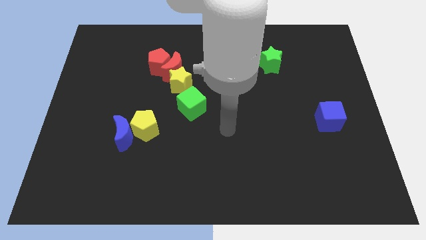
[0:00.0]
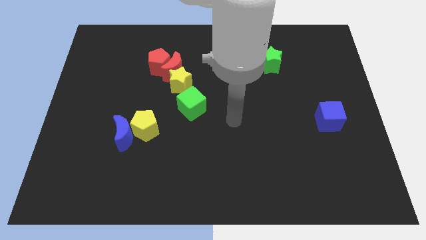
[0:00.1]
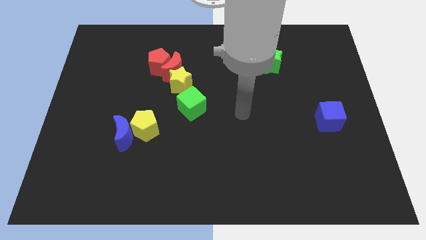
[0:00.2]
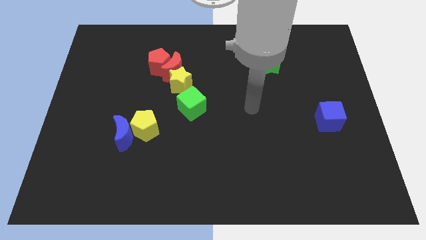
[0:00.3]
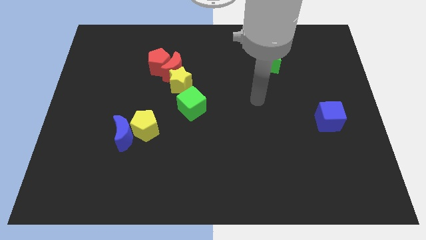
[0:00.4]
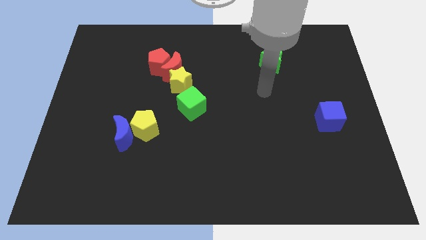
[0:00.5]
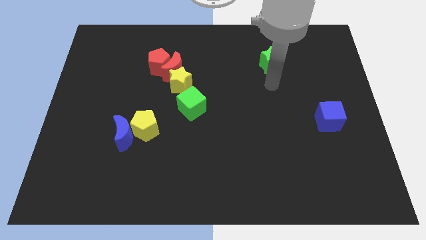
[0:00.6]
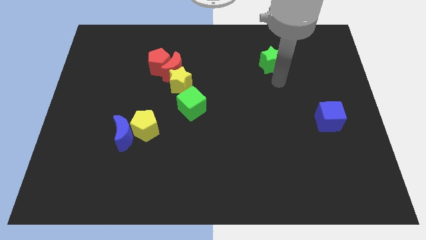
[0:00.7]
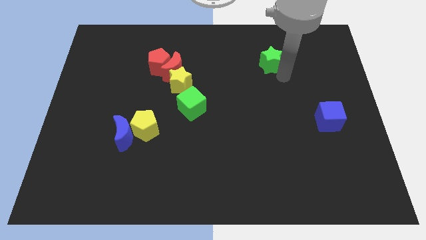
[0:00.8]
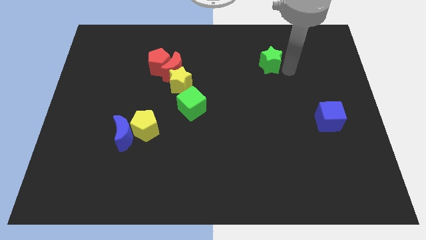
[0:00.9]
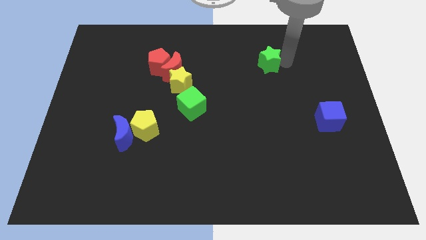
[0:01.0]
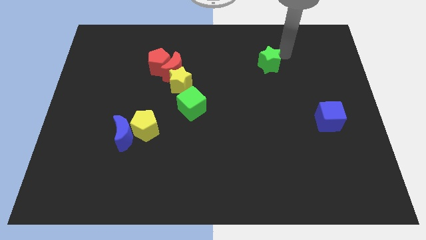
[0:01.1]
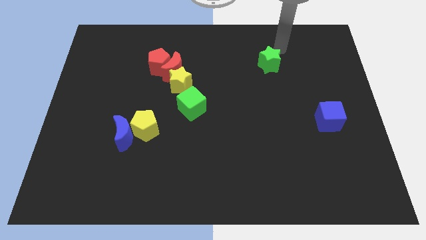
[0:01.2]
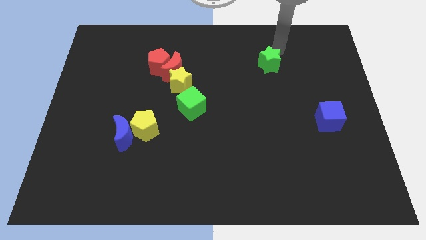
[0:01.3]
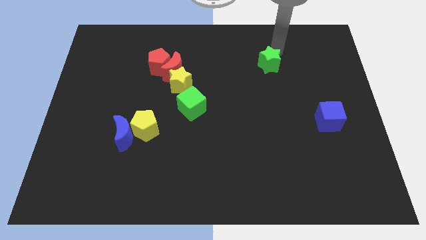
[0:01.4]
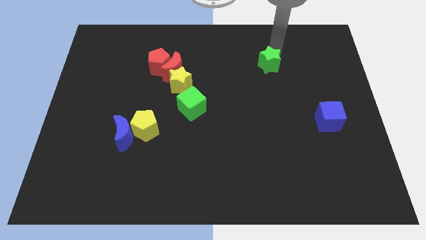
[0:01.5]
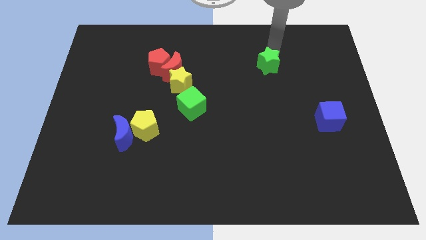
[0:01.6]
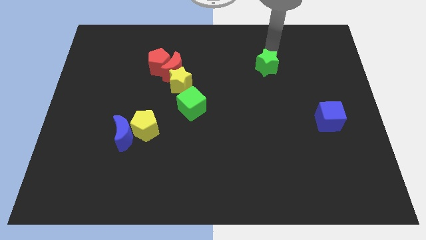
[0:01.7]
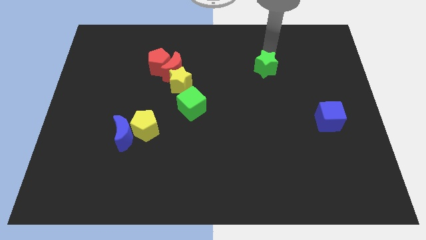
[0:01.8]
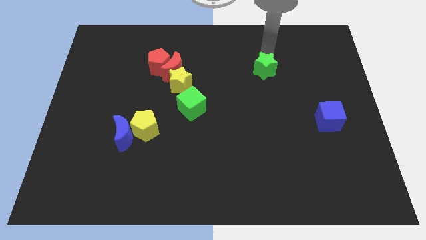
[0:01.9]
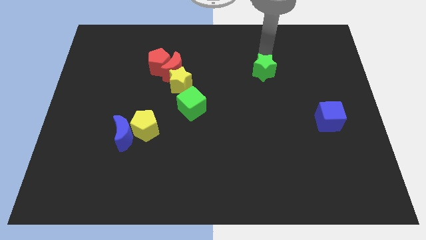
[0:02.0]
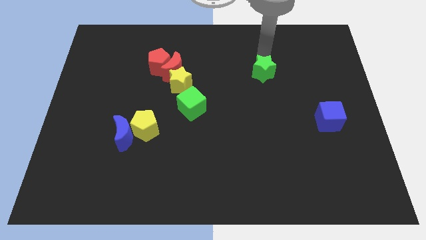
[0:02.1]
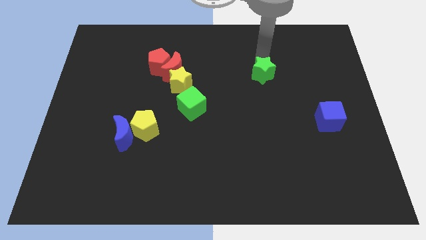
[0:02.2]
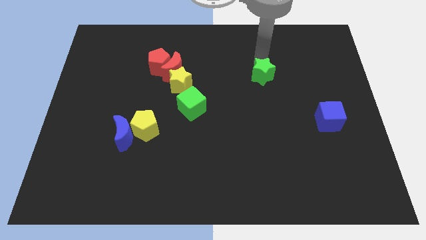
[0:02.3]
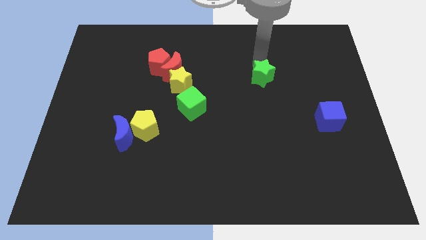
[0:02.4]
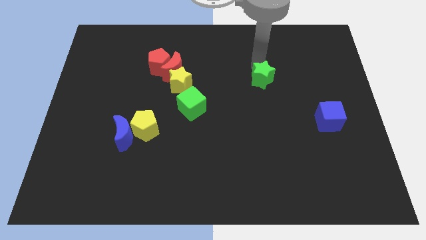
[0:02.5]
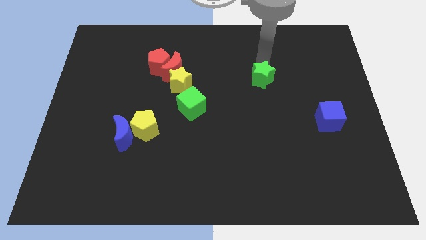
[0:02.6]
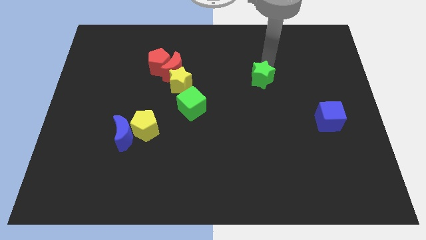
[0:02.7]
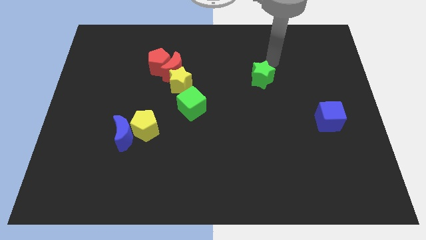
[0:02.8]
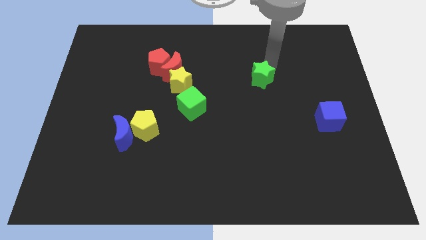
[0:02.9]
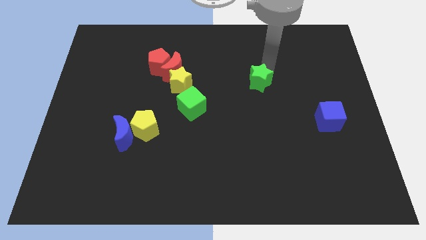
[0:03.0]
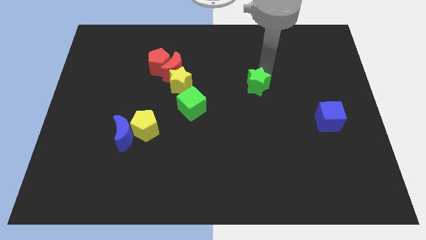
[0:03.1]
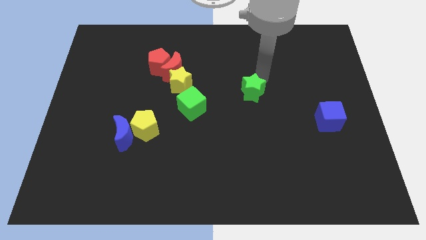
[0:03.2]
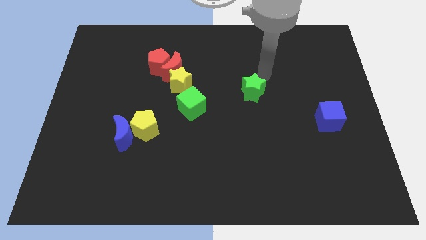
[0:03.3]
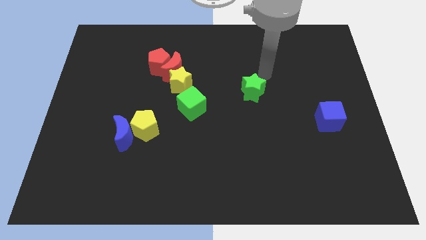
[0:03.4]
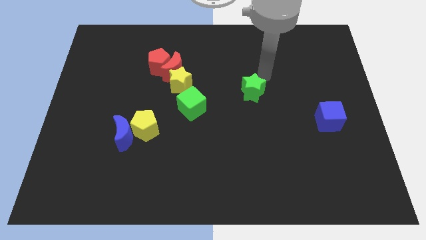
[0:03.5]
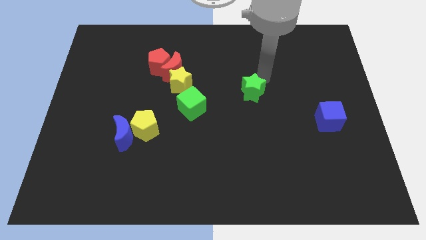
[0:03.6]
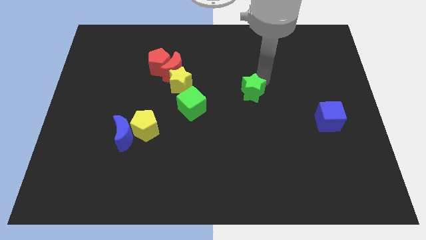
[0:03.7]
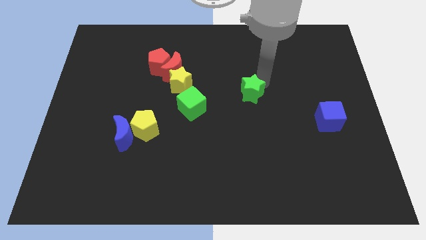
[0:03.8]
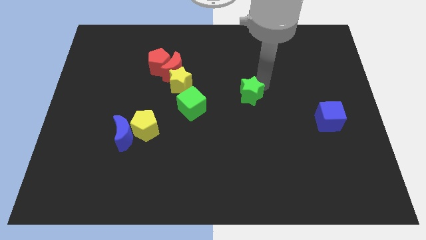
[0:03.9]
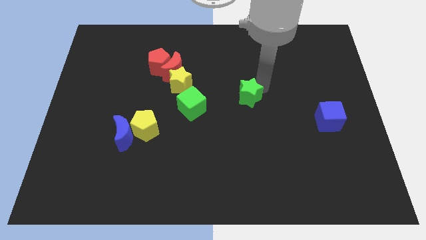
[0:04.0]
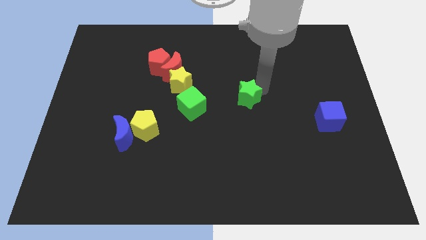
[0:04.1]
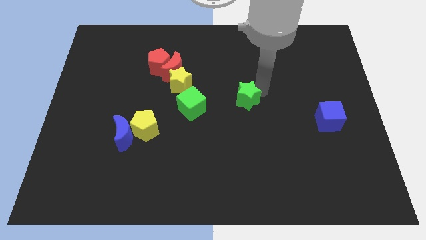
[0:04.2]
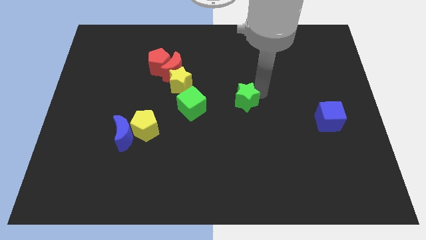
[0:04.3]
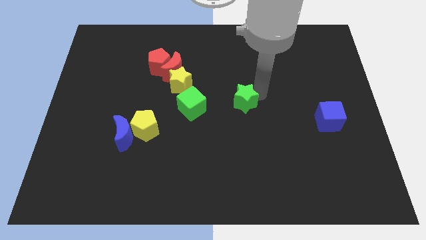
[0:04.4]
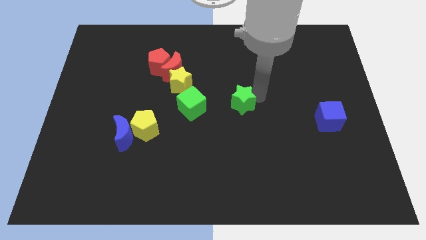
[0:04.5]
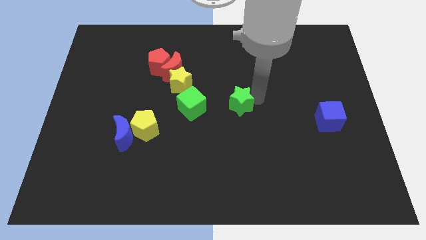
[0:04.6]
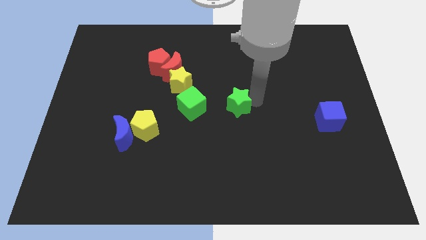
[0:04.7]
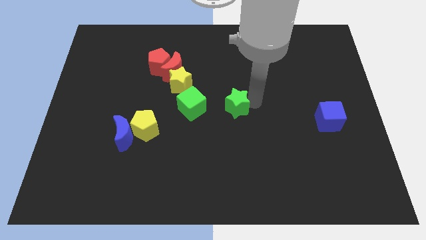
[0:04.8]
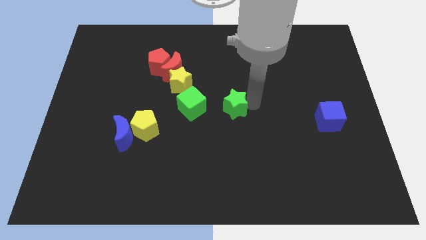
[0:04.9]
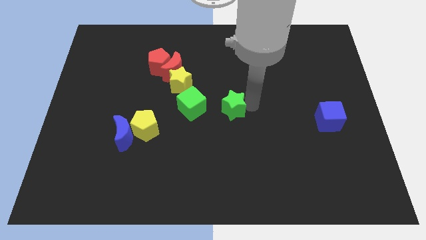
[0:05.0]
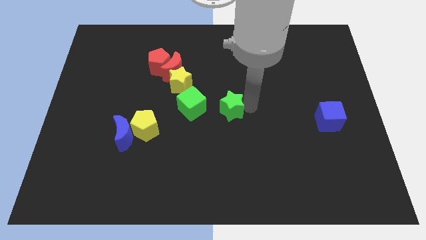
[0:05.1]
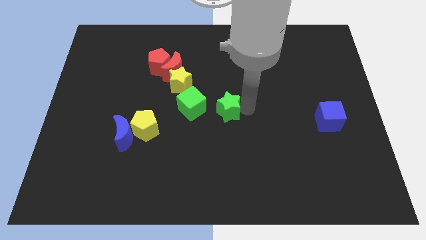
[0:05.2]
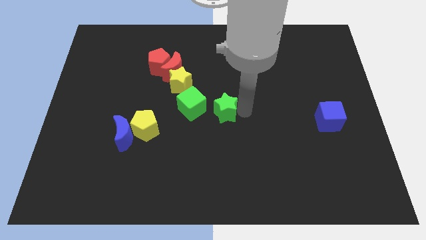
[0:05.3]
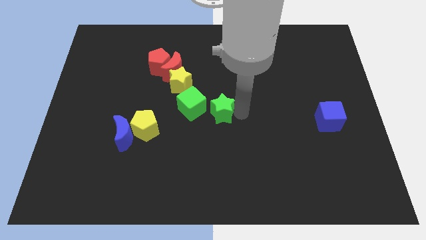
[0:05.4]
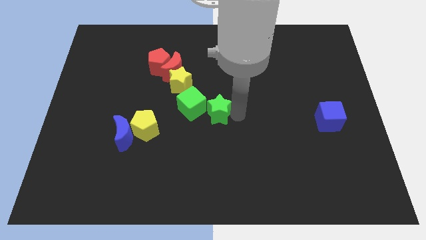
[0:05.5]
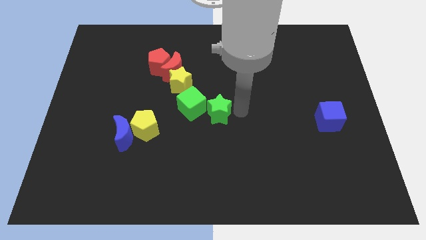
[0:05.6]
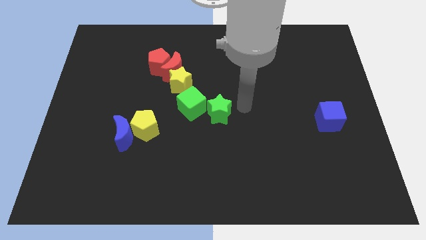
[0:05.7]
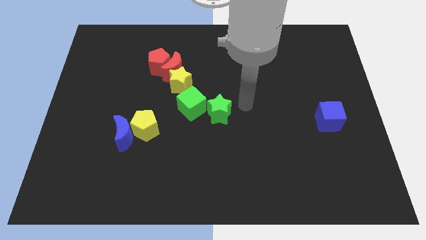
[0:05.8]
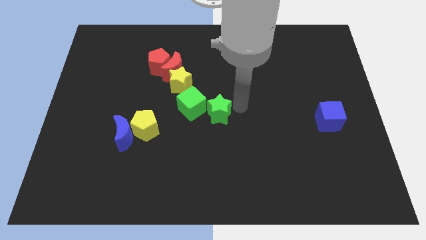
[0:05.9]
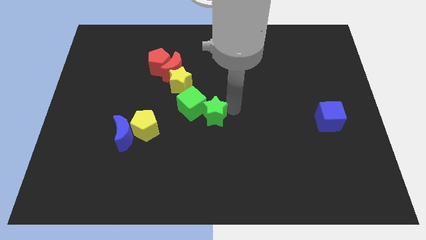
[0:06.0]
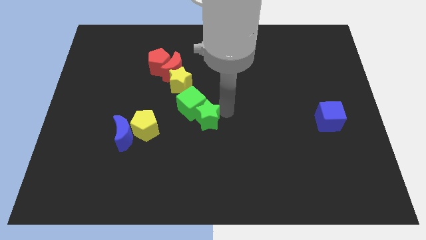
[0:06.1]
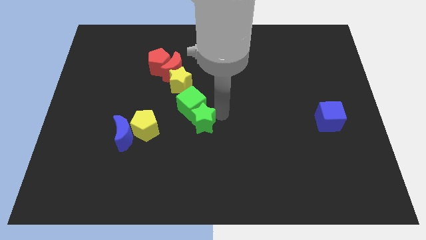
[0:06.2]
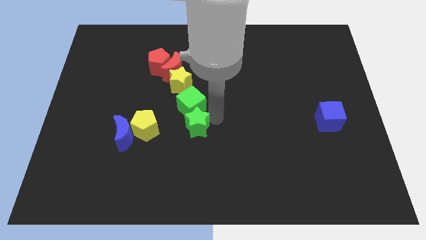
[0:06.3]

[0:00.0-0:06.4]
move the green star to the bottom of the yellow star

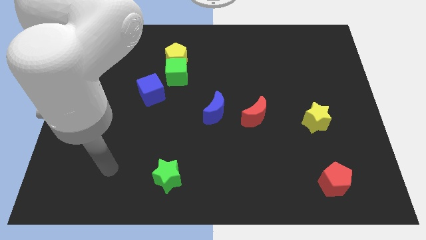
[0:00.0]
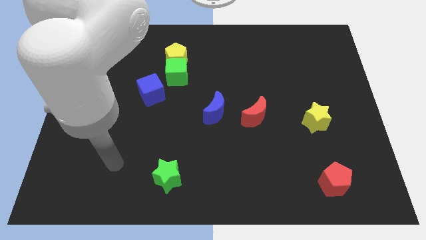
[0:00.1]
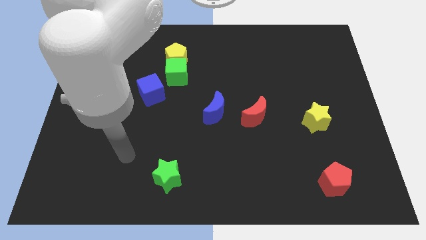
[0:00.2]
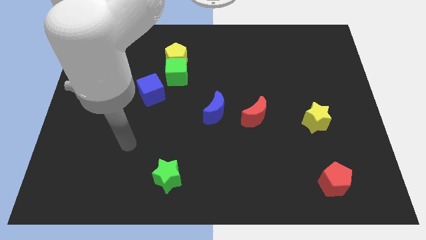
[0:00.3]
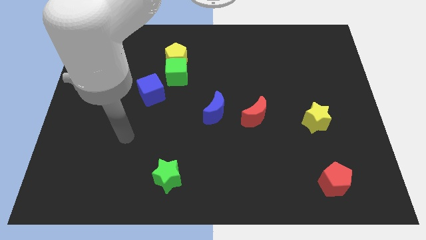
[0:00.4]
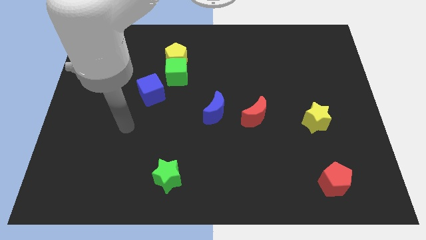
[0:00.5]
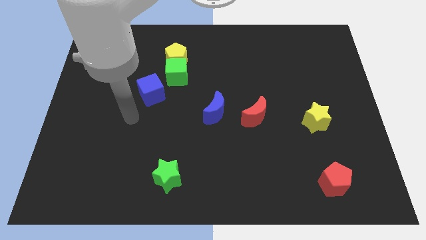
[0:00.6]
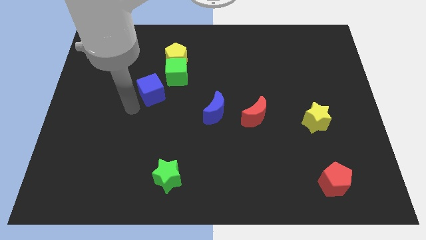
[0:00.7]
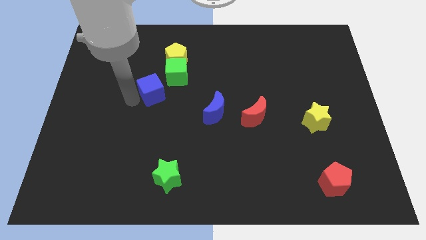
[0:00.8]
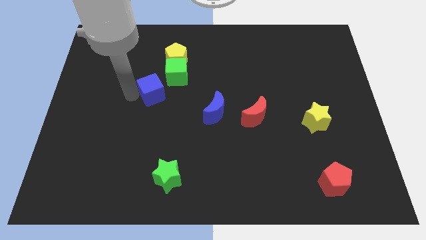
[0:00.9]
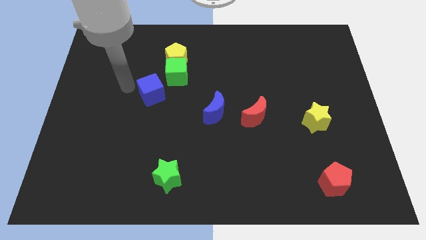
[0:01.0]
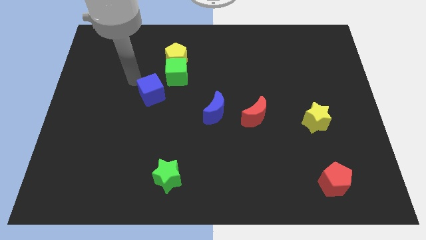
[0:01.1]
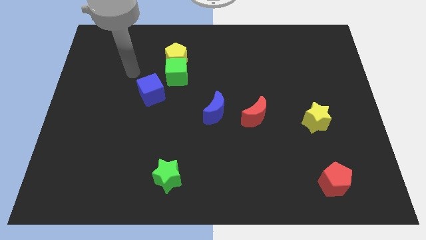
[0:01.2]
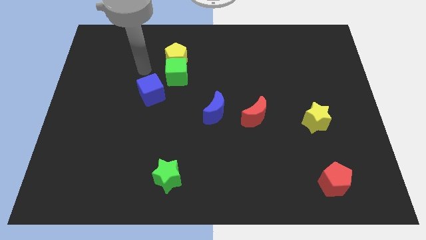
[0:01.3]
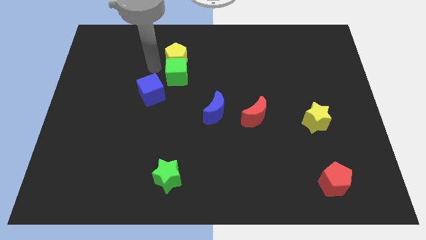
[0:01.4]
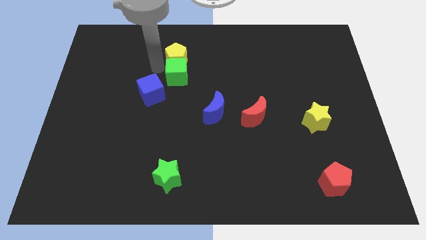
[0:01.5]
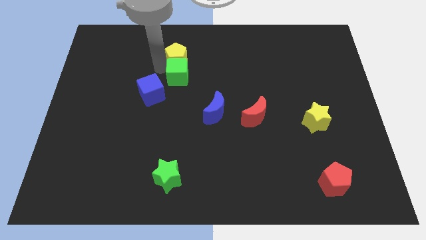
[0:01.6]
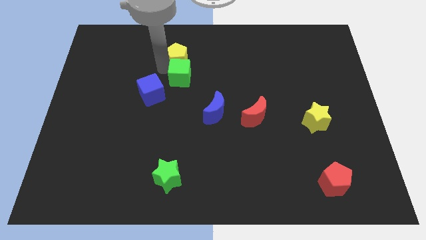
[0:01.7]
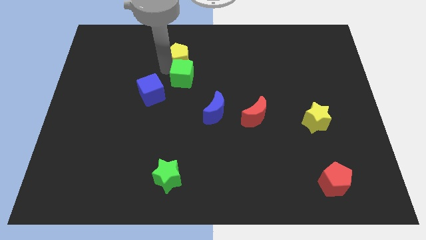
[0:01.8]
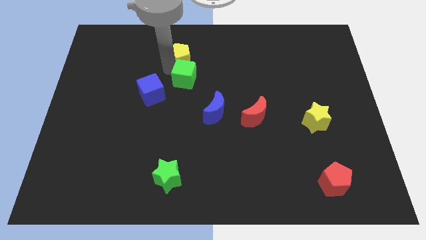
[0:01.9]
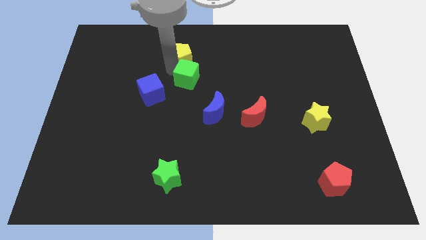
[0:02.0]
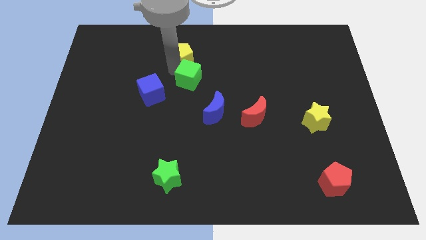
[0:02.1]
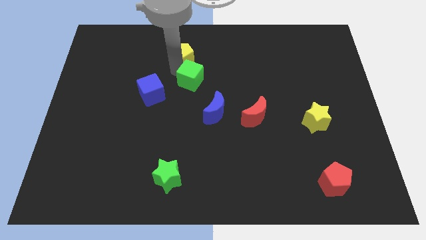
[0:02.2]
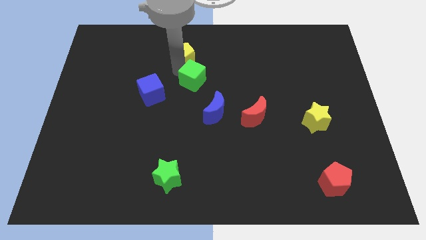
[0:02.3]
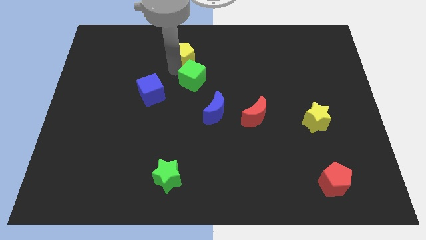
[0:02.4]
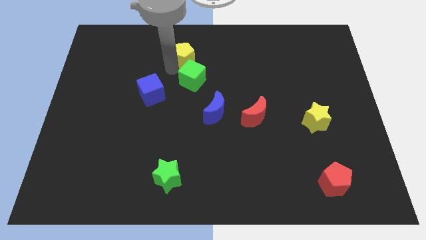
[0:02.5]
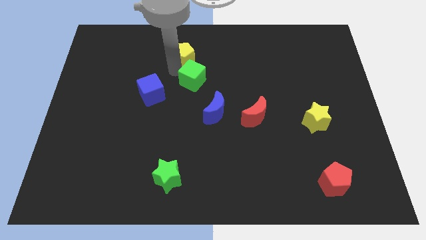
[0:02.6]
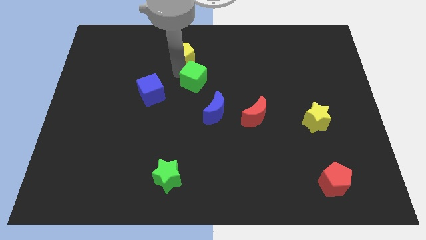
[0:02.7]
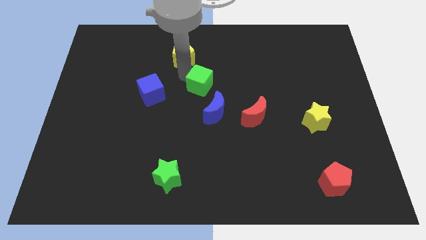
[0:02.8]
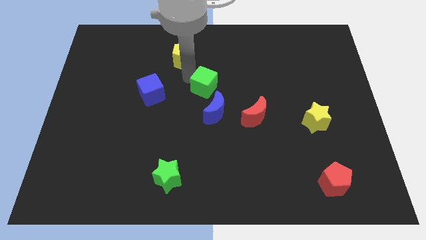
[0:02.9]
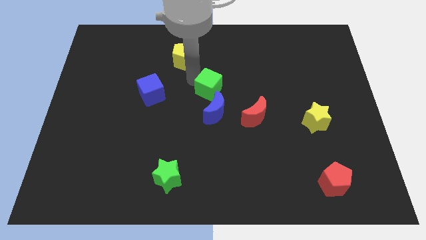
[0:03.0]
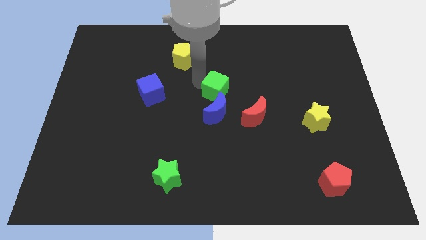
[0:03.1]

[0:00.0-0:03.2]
move the green cube to the top left of the red moon
